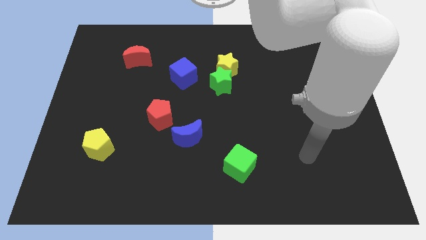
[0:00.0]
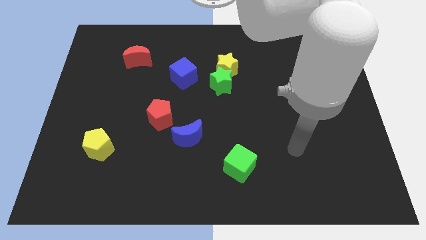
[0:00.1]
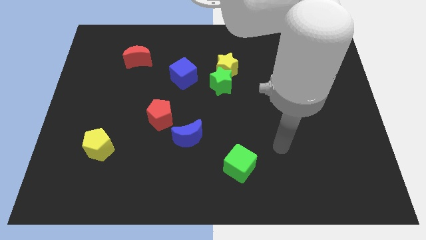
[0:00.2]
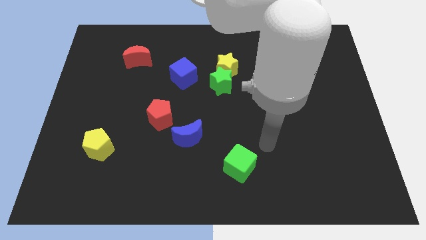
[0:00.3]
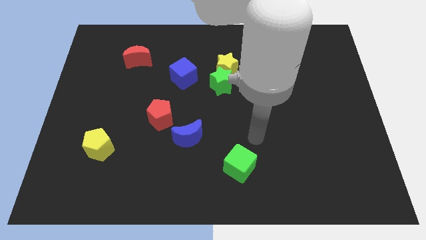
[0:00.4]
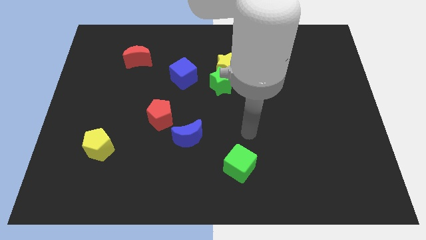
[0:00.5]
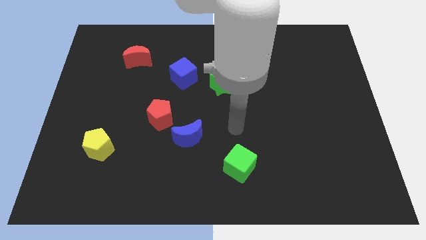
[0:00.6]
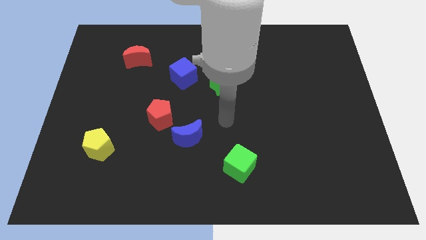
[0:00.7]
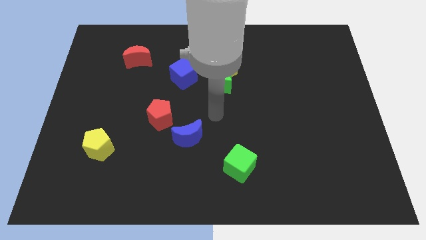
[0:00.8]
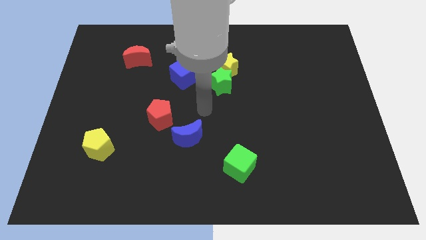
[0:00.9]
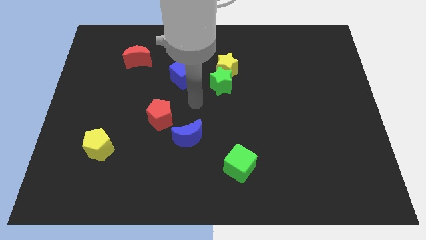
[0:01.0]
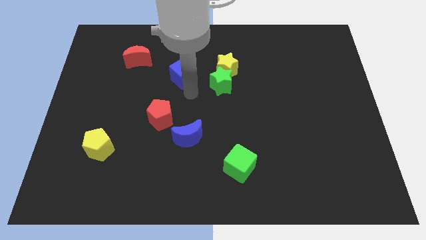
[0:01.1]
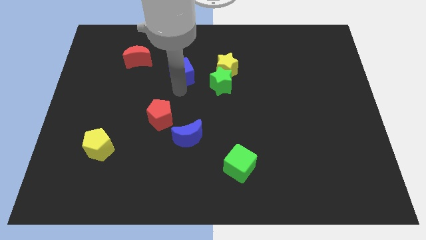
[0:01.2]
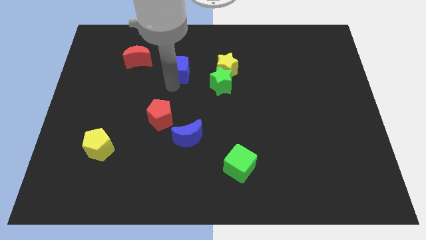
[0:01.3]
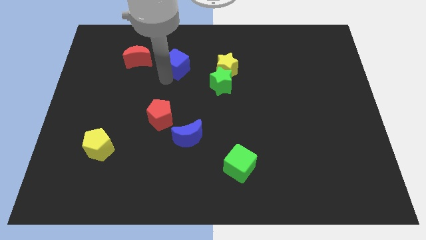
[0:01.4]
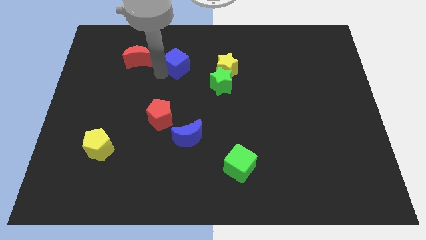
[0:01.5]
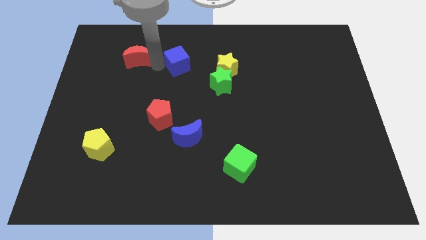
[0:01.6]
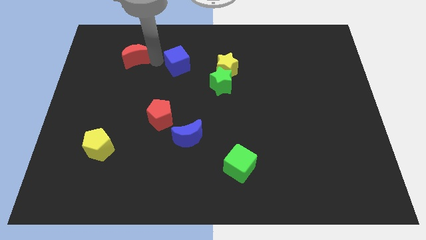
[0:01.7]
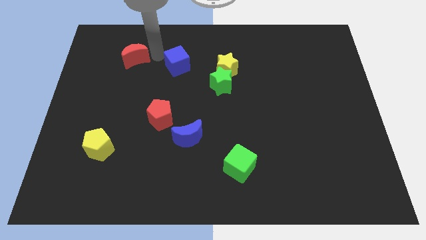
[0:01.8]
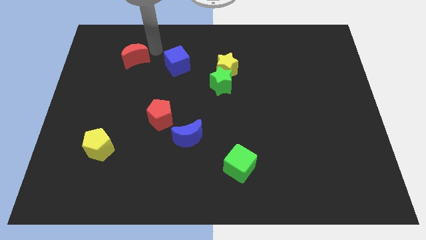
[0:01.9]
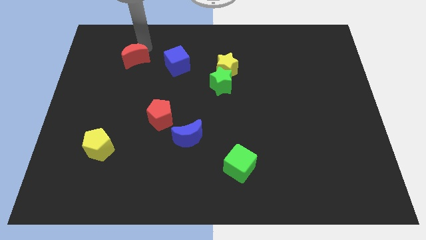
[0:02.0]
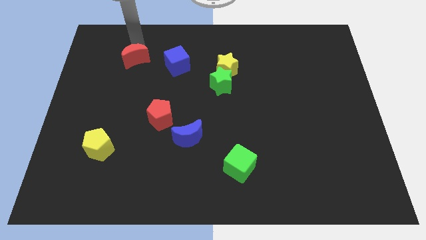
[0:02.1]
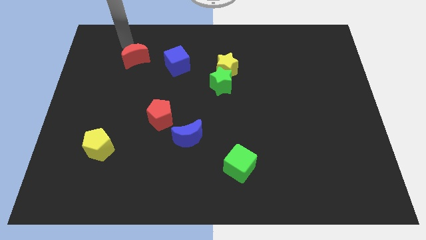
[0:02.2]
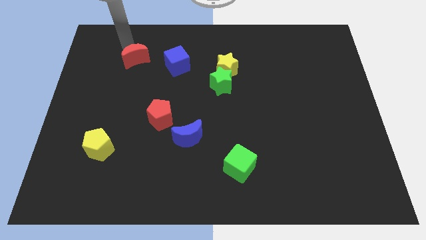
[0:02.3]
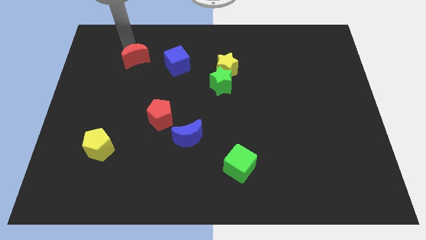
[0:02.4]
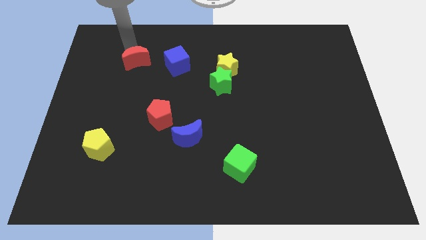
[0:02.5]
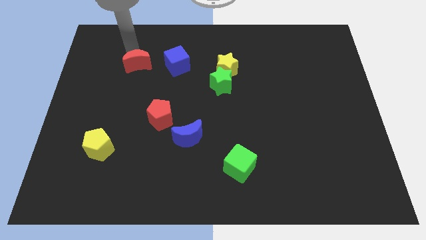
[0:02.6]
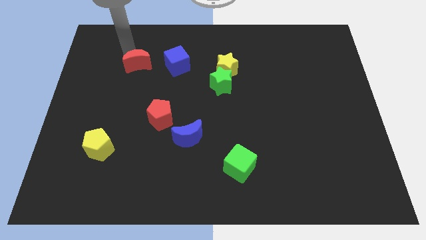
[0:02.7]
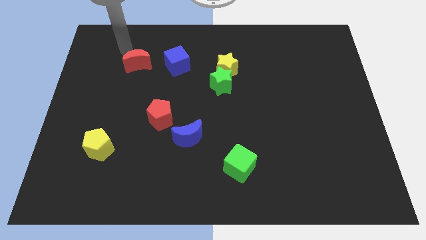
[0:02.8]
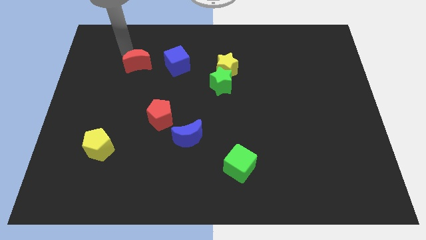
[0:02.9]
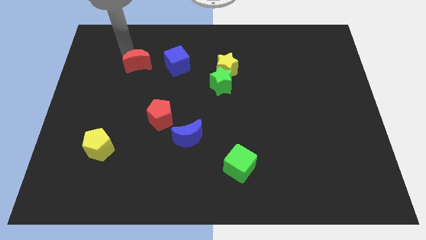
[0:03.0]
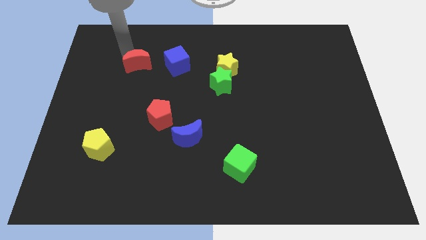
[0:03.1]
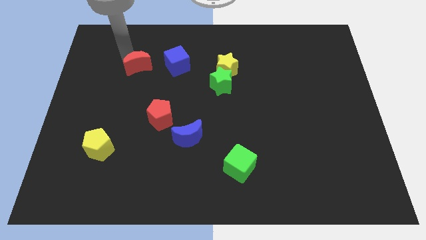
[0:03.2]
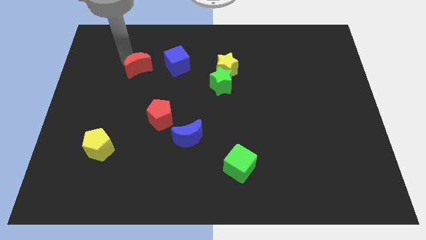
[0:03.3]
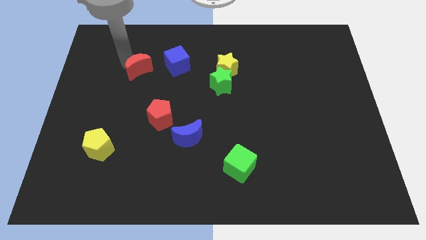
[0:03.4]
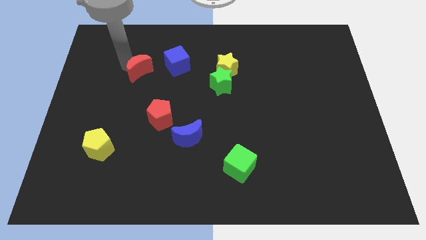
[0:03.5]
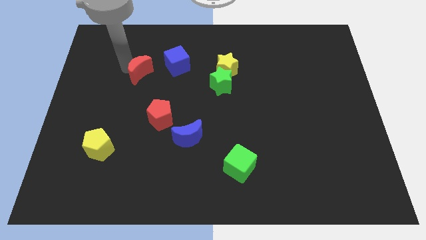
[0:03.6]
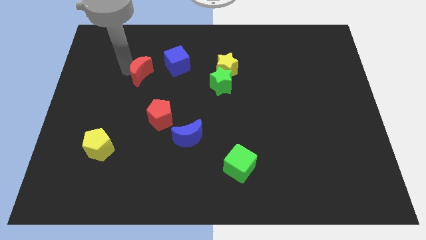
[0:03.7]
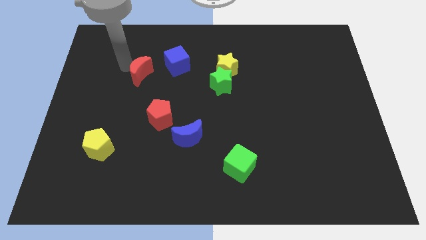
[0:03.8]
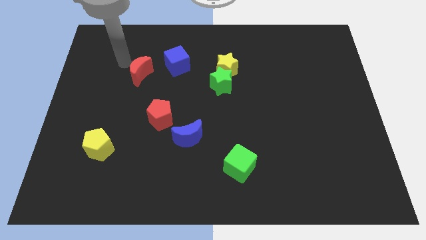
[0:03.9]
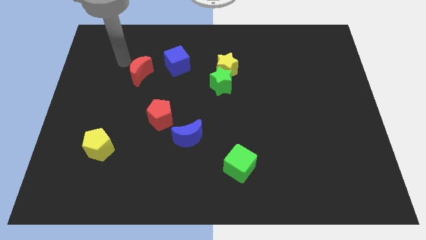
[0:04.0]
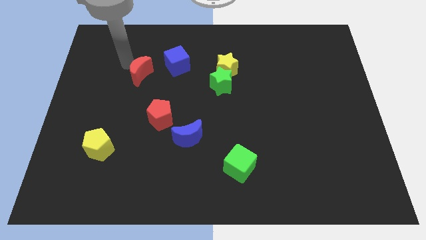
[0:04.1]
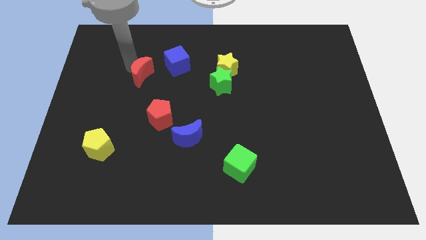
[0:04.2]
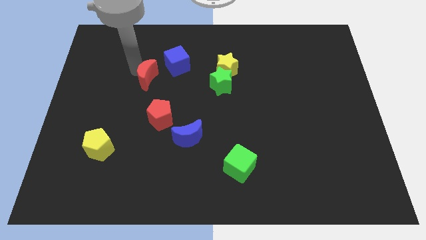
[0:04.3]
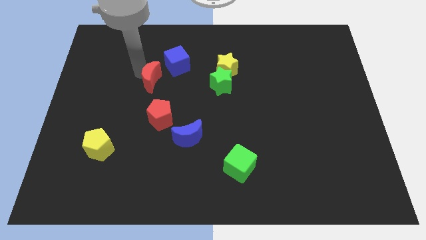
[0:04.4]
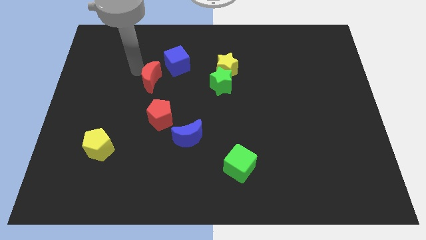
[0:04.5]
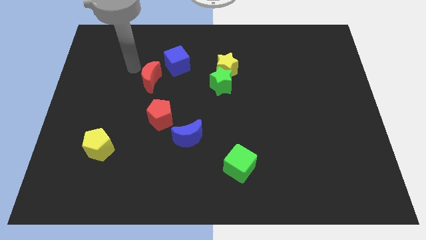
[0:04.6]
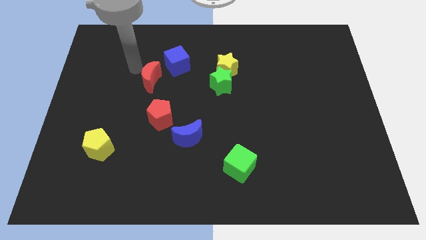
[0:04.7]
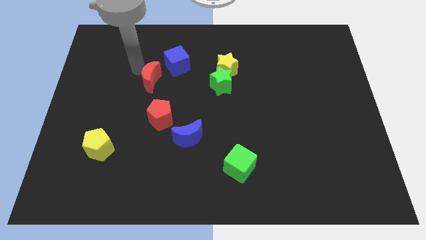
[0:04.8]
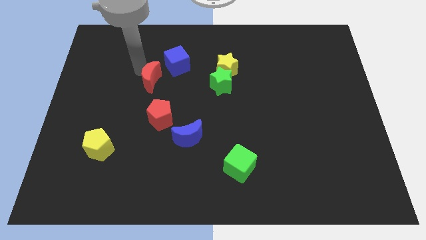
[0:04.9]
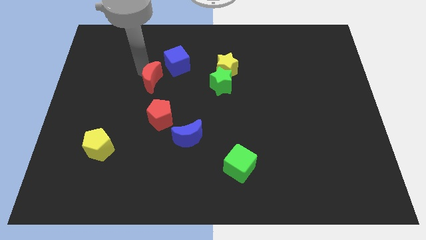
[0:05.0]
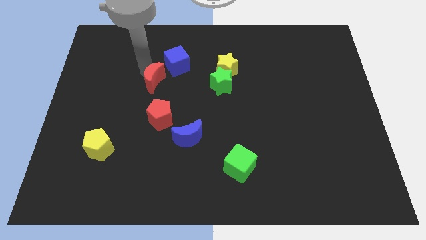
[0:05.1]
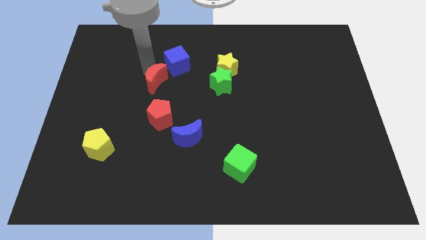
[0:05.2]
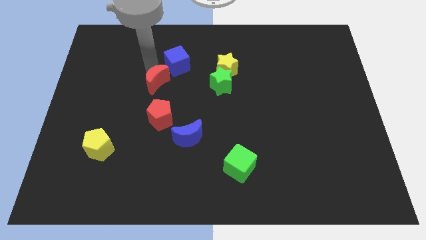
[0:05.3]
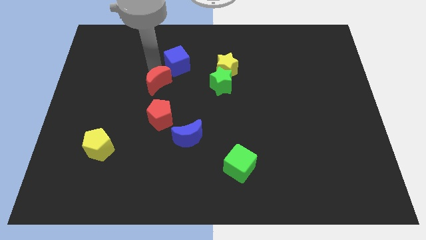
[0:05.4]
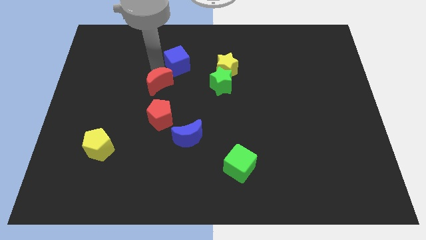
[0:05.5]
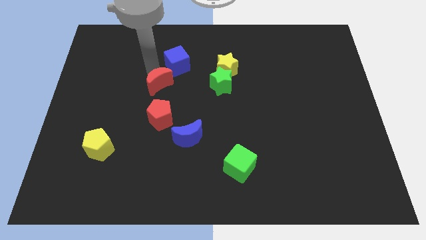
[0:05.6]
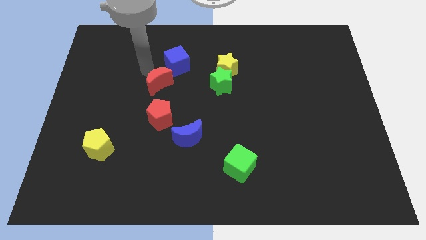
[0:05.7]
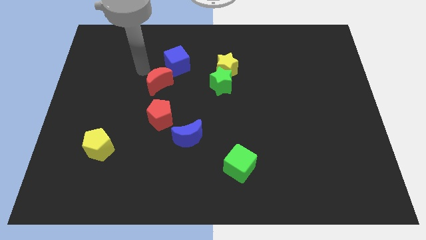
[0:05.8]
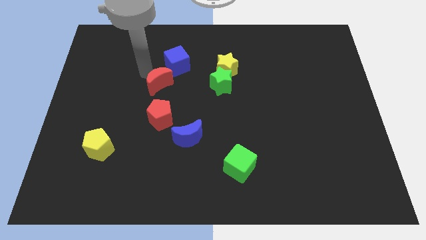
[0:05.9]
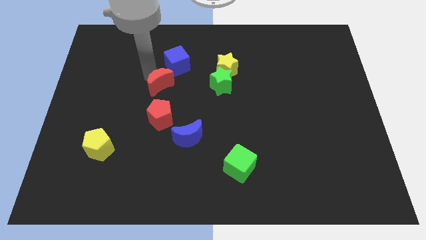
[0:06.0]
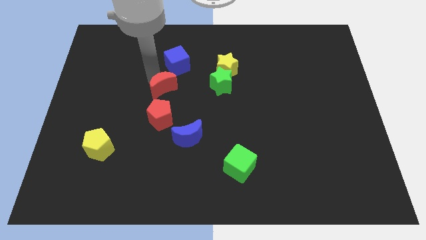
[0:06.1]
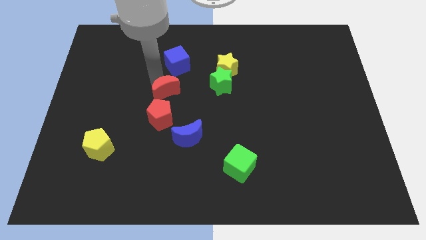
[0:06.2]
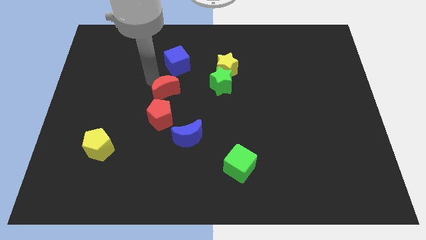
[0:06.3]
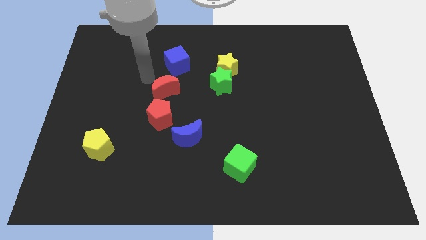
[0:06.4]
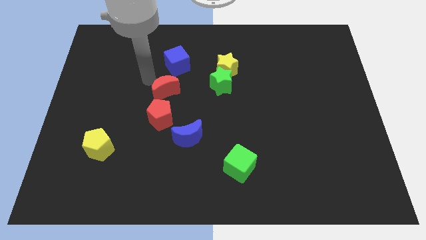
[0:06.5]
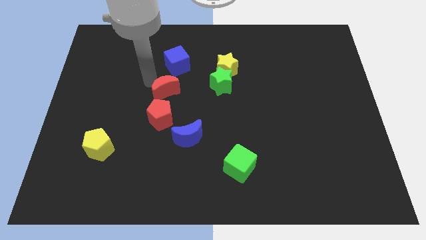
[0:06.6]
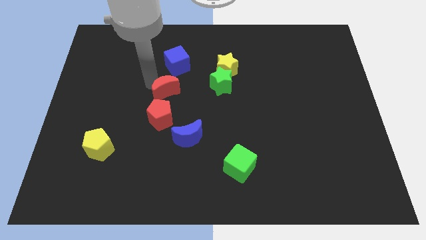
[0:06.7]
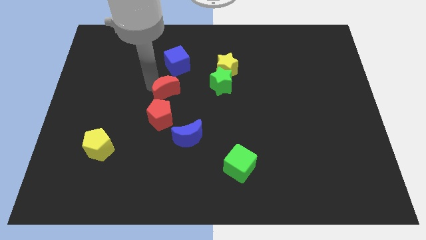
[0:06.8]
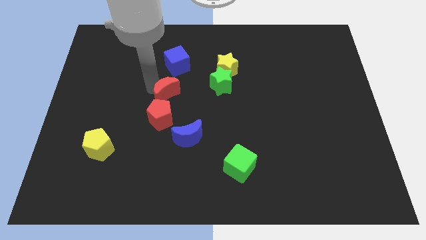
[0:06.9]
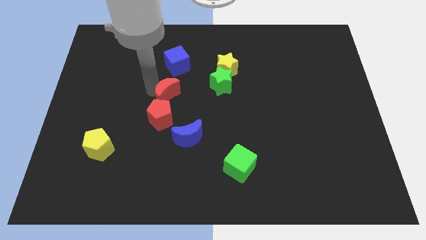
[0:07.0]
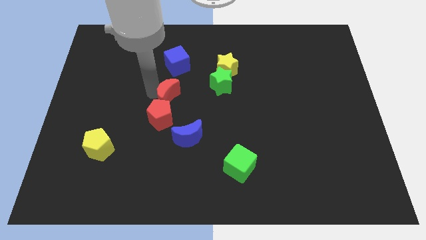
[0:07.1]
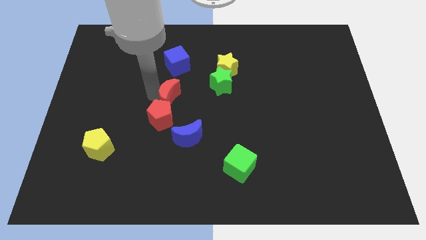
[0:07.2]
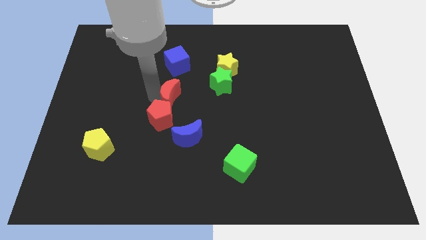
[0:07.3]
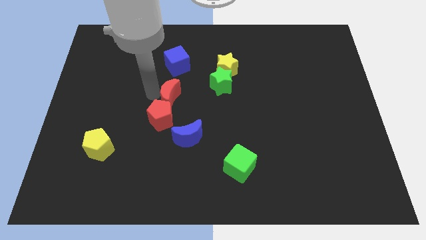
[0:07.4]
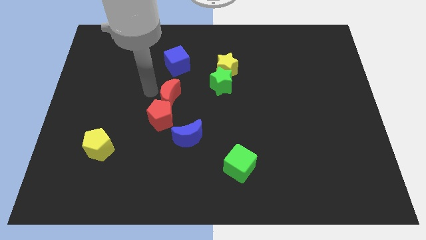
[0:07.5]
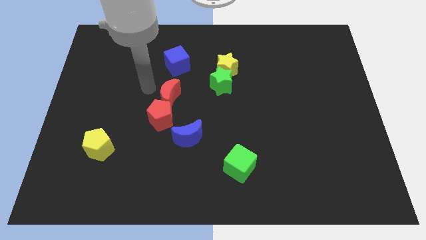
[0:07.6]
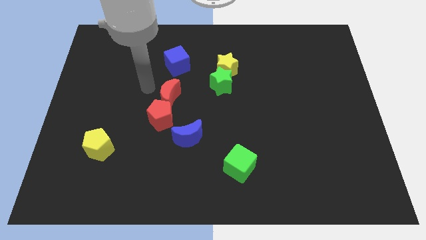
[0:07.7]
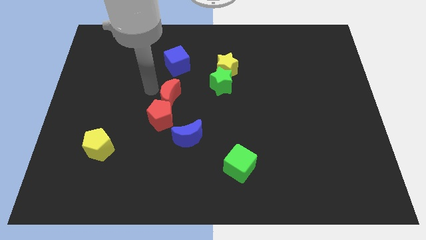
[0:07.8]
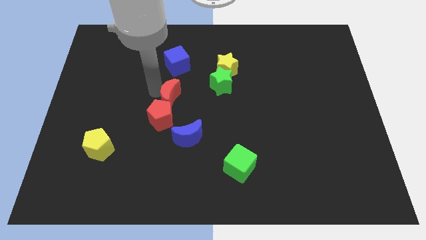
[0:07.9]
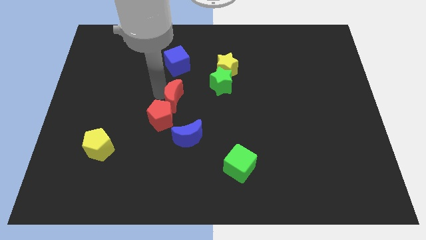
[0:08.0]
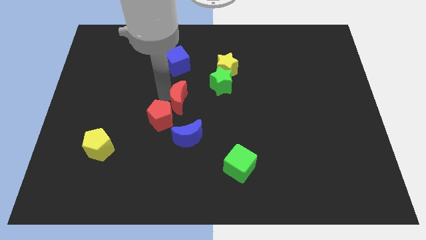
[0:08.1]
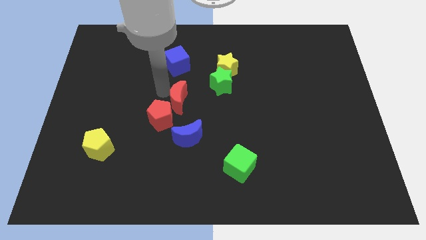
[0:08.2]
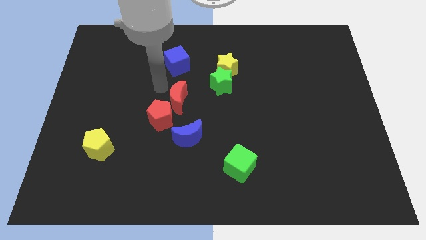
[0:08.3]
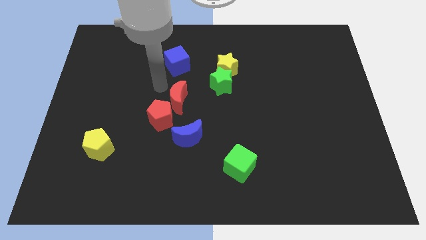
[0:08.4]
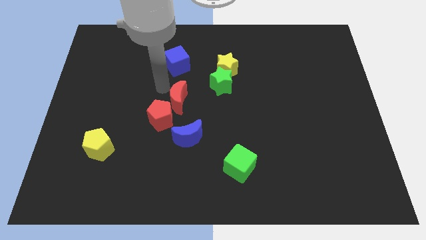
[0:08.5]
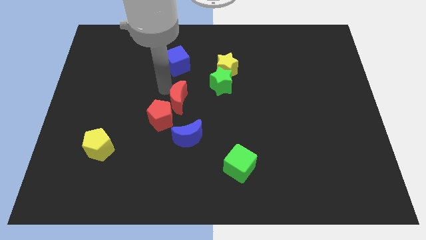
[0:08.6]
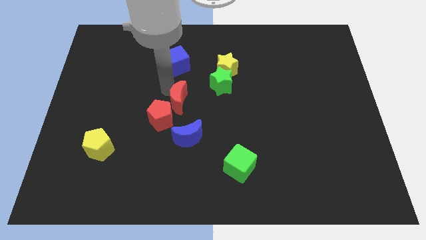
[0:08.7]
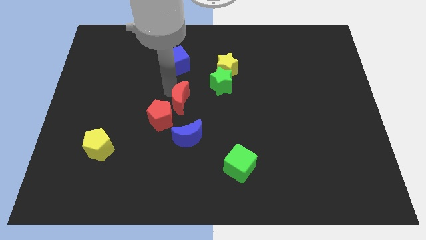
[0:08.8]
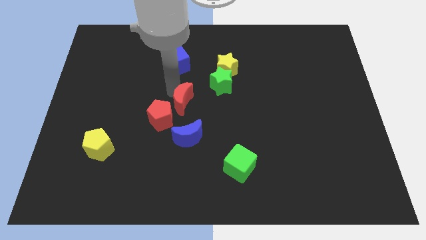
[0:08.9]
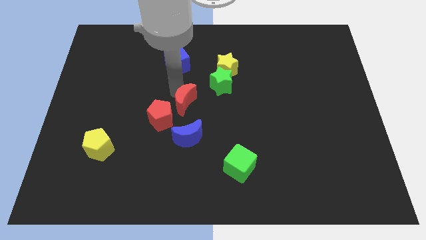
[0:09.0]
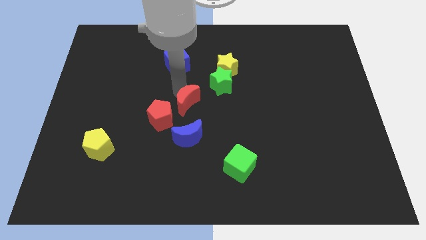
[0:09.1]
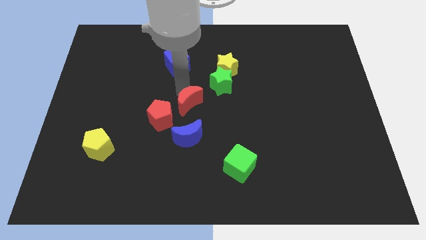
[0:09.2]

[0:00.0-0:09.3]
push the red moon diagonally downwards and to the right
